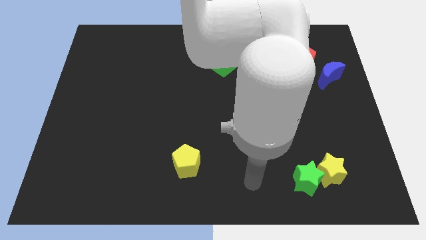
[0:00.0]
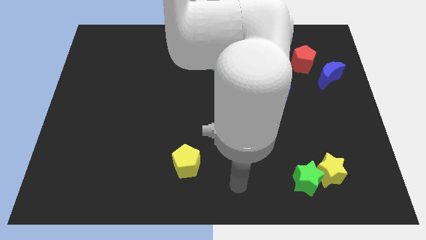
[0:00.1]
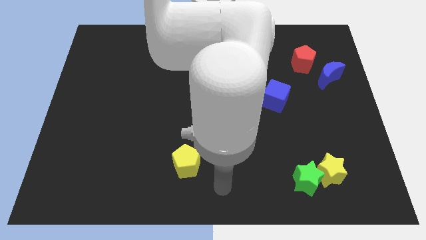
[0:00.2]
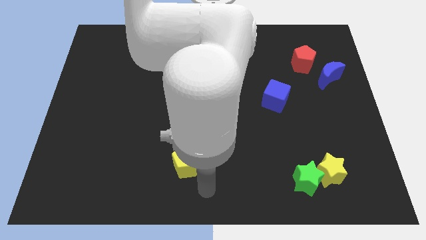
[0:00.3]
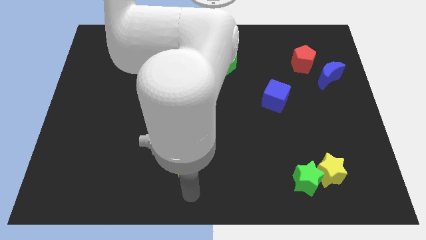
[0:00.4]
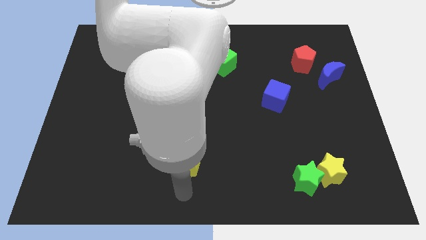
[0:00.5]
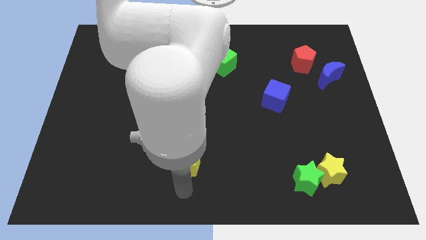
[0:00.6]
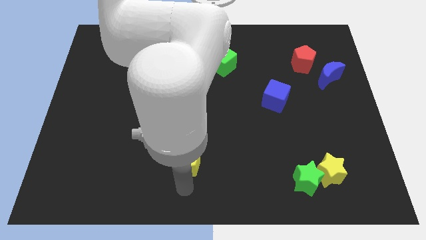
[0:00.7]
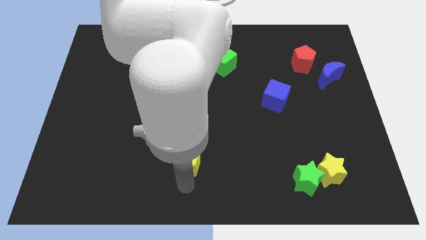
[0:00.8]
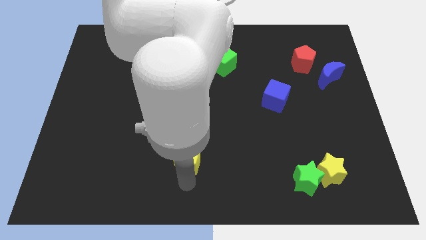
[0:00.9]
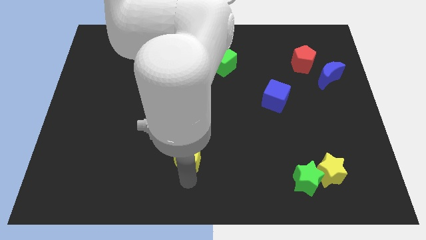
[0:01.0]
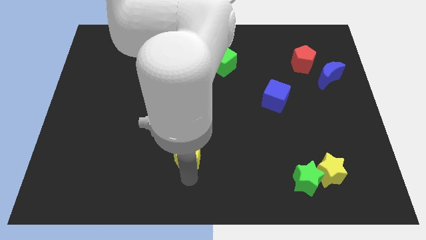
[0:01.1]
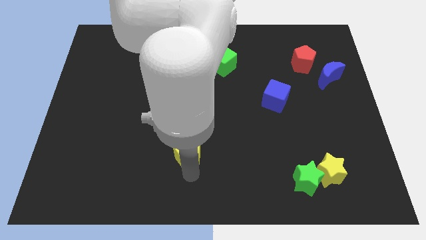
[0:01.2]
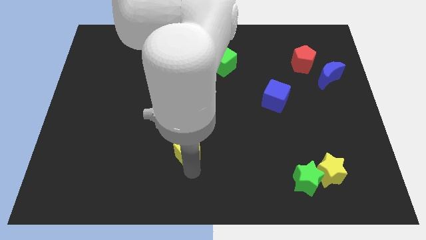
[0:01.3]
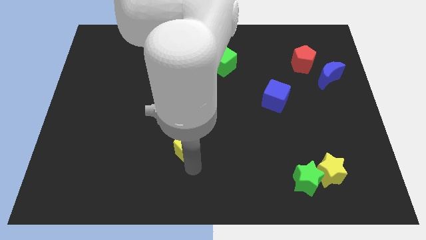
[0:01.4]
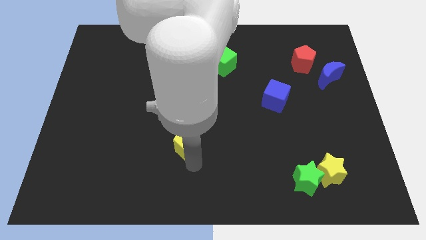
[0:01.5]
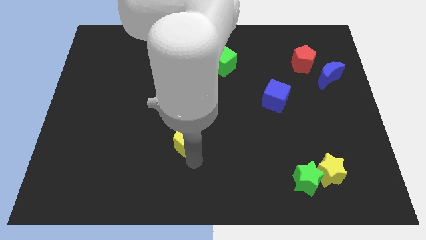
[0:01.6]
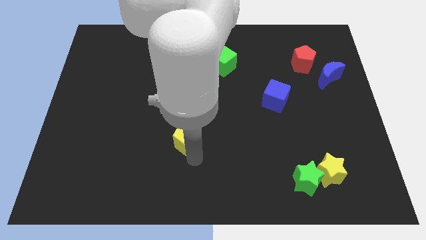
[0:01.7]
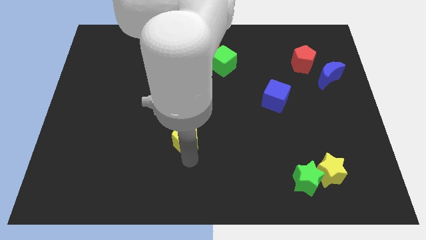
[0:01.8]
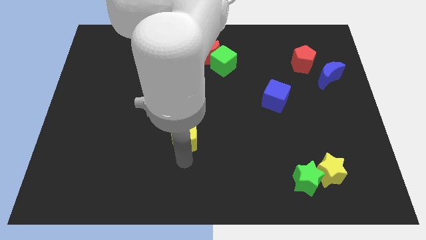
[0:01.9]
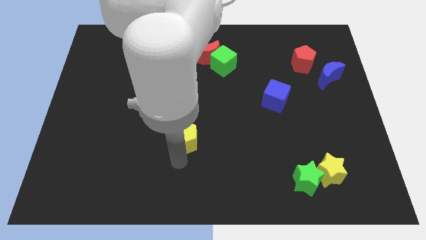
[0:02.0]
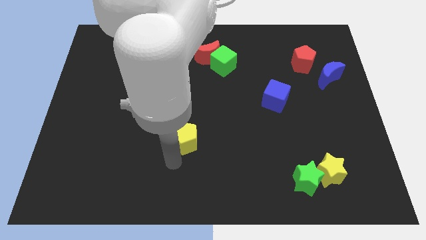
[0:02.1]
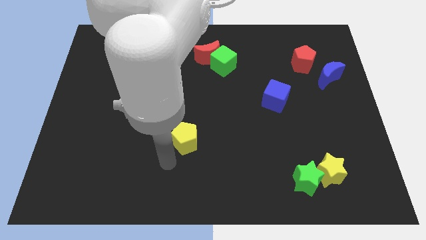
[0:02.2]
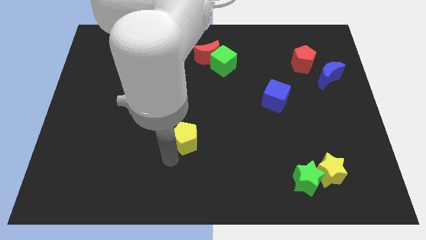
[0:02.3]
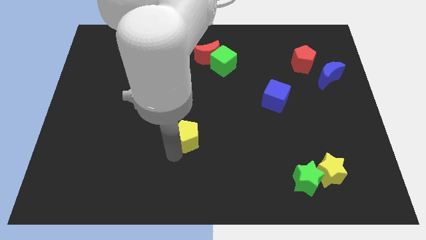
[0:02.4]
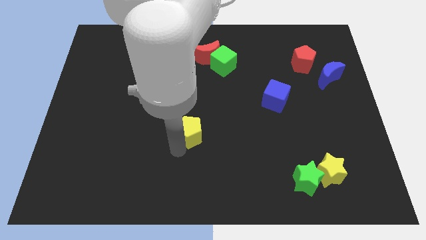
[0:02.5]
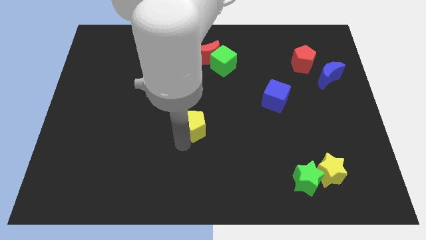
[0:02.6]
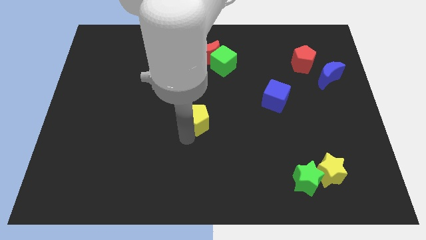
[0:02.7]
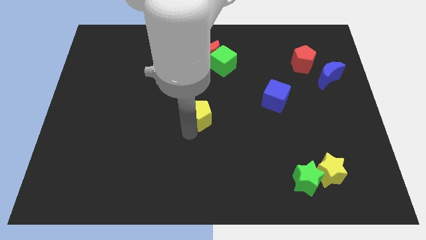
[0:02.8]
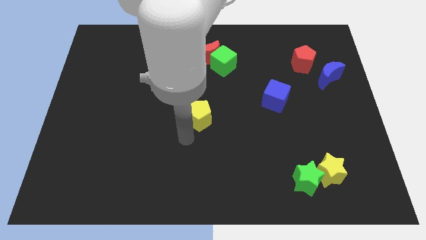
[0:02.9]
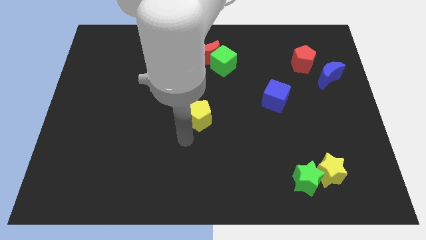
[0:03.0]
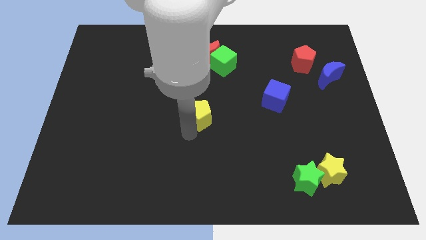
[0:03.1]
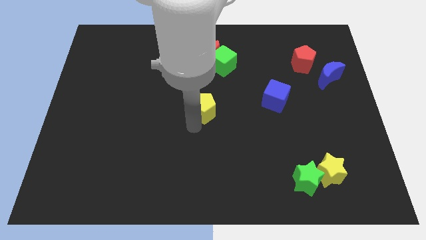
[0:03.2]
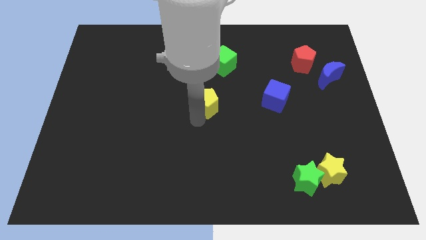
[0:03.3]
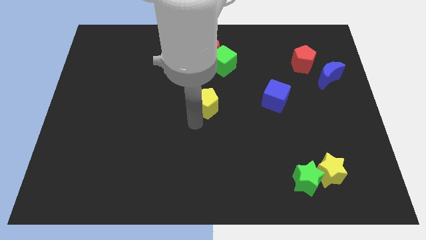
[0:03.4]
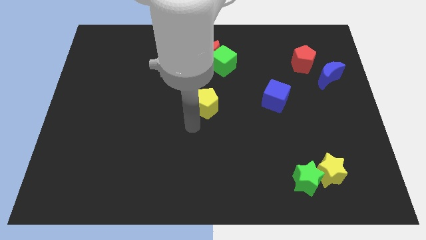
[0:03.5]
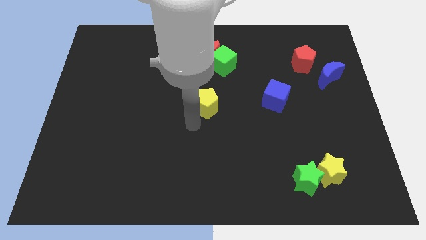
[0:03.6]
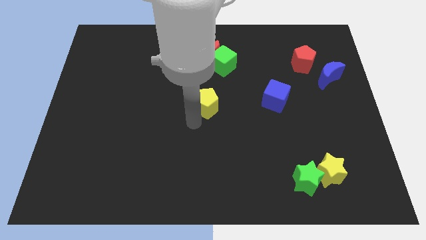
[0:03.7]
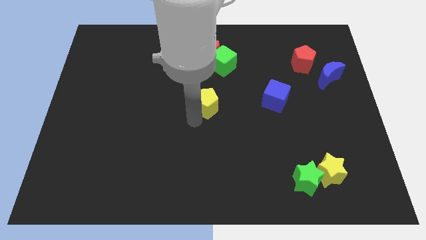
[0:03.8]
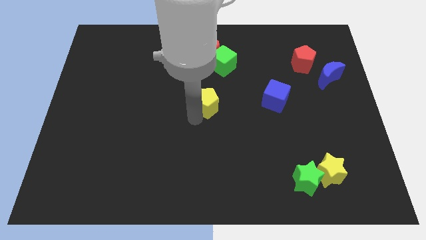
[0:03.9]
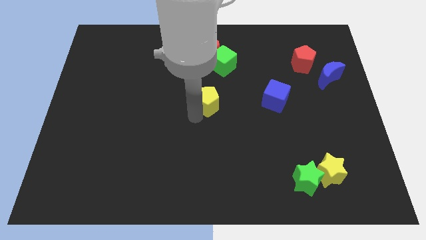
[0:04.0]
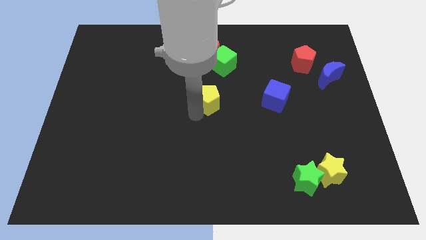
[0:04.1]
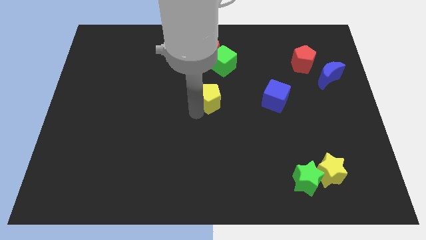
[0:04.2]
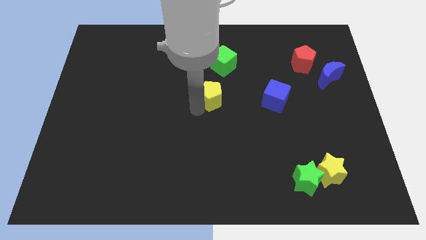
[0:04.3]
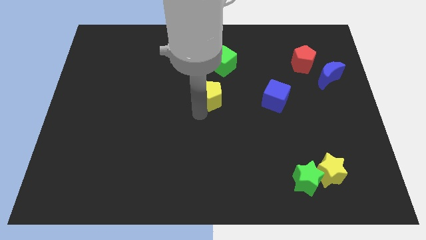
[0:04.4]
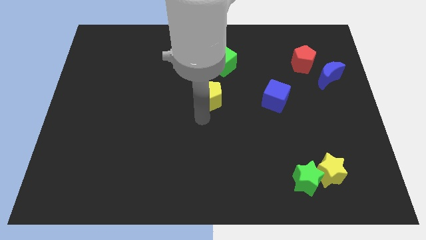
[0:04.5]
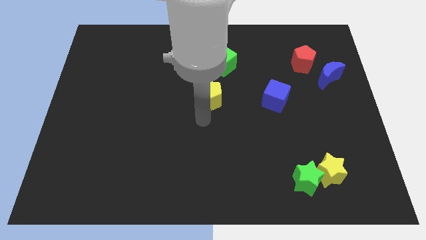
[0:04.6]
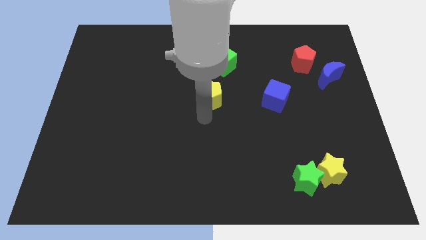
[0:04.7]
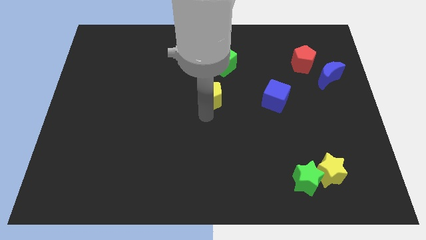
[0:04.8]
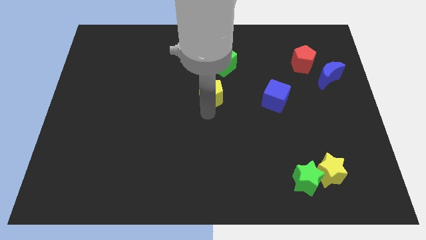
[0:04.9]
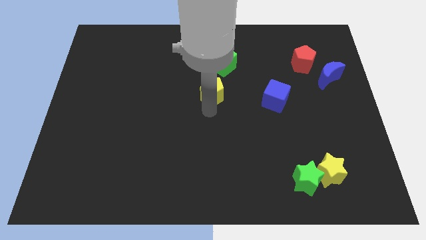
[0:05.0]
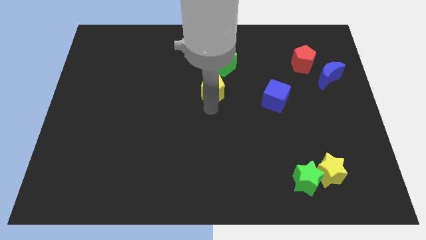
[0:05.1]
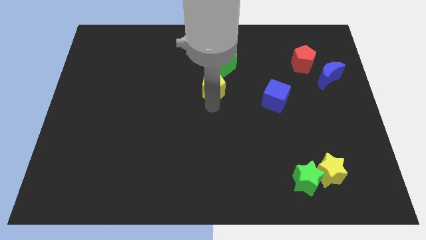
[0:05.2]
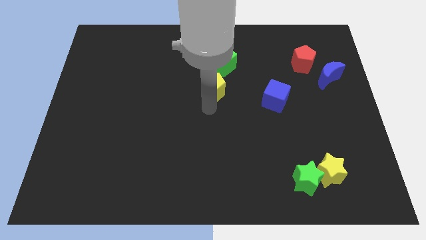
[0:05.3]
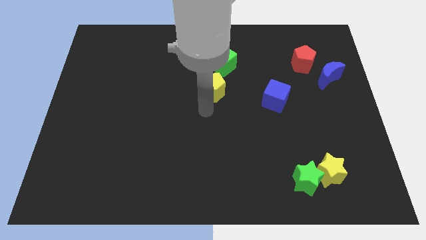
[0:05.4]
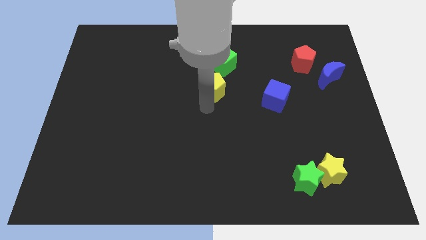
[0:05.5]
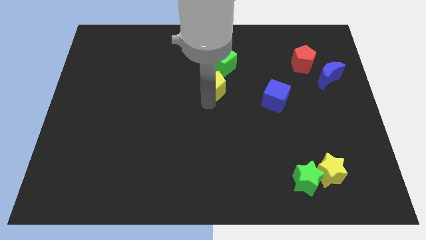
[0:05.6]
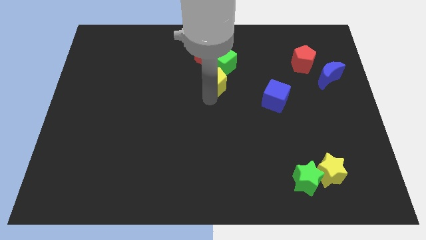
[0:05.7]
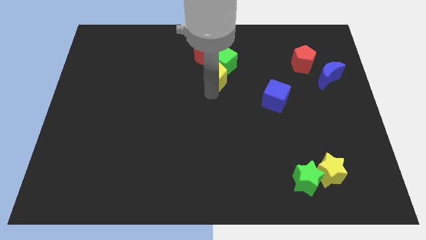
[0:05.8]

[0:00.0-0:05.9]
slide the yellow pentagon next to the green cube
